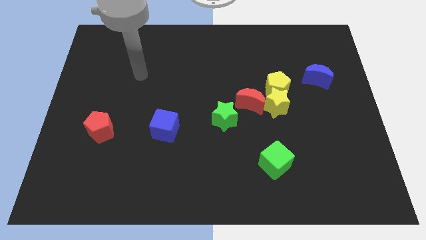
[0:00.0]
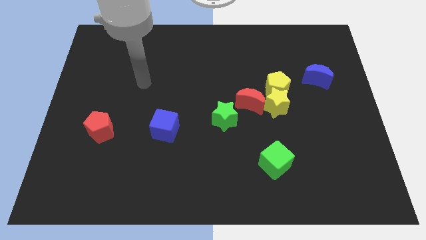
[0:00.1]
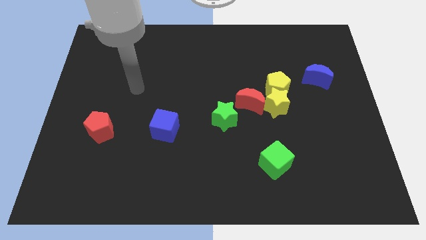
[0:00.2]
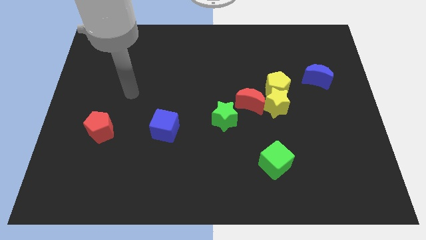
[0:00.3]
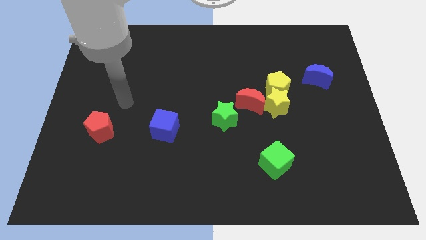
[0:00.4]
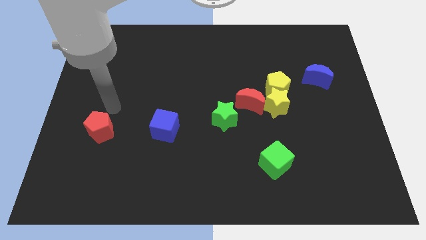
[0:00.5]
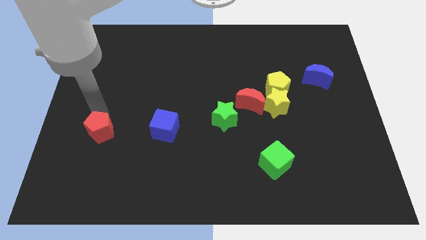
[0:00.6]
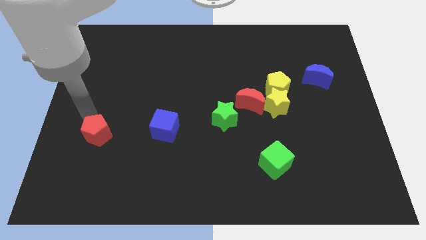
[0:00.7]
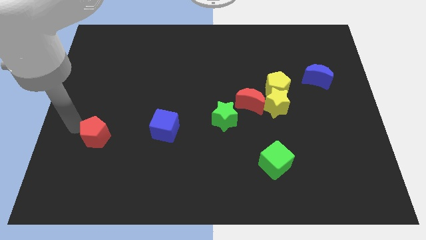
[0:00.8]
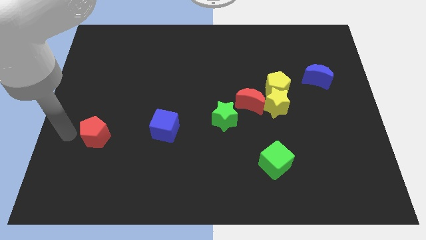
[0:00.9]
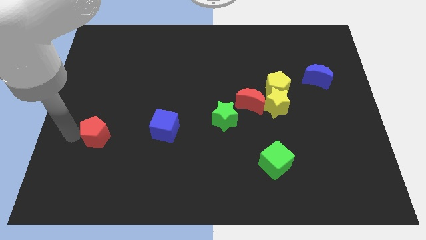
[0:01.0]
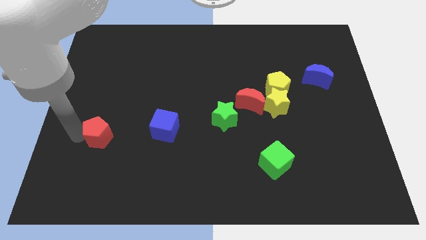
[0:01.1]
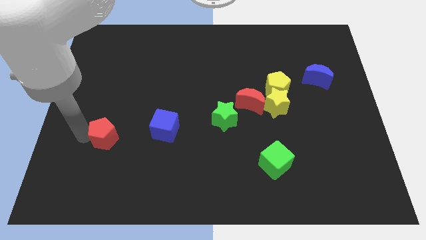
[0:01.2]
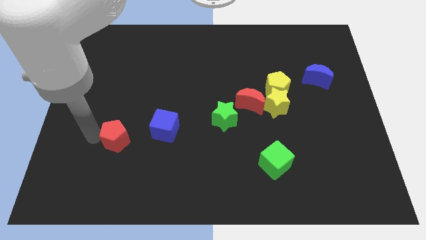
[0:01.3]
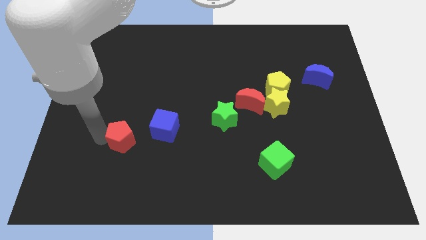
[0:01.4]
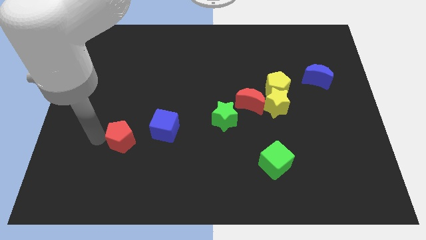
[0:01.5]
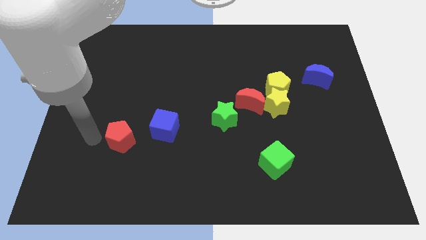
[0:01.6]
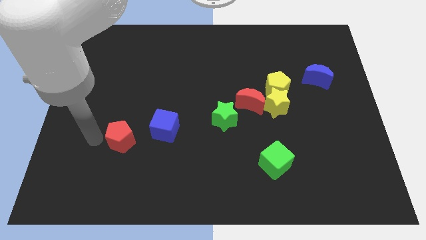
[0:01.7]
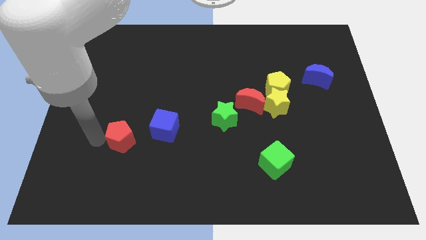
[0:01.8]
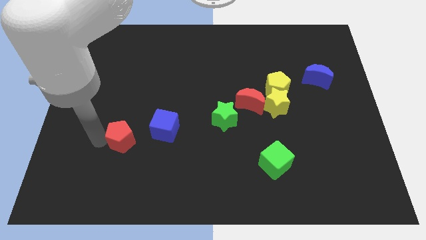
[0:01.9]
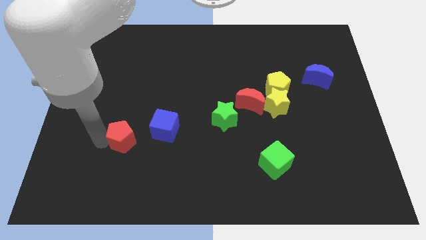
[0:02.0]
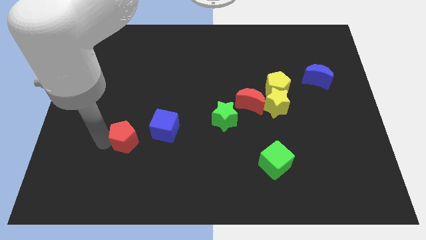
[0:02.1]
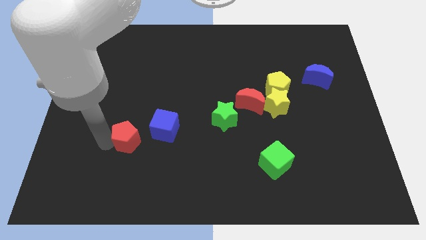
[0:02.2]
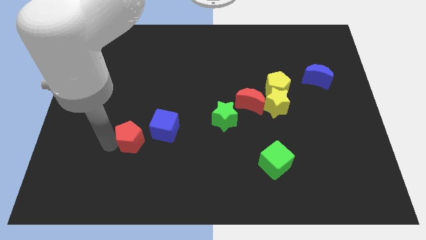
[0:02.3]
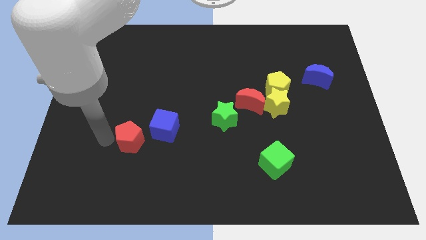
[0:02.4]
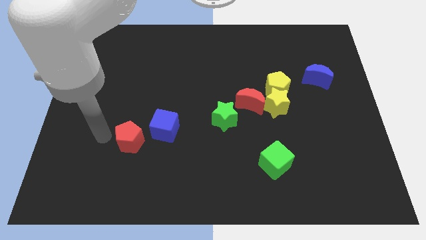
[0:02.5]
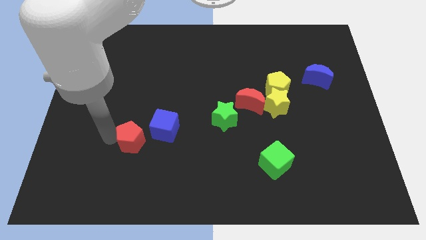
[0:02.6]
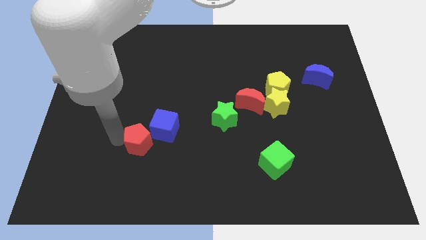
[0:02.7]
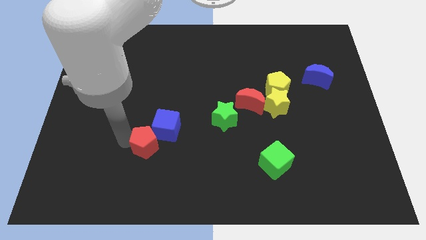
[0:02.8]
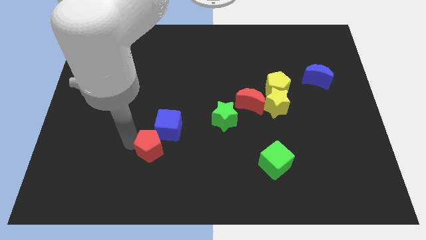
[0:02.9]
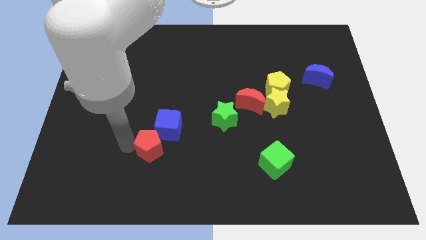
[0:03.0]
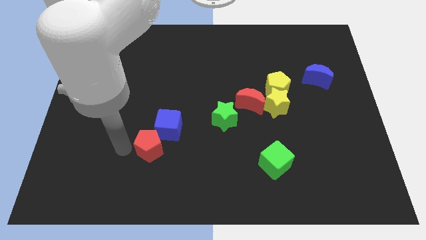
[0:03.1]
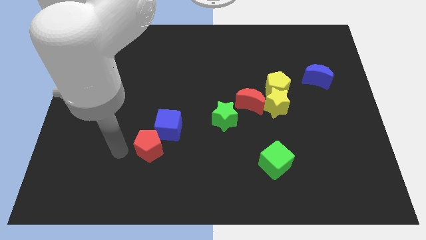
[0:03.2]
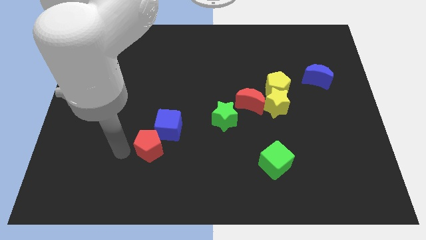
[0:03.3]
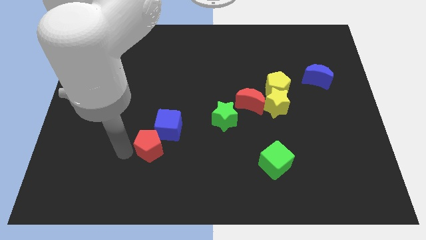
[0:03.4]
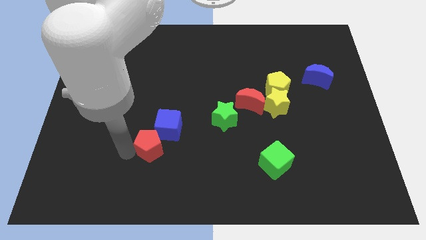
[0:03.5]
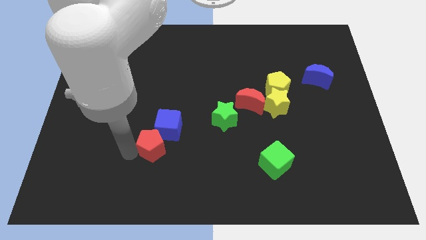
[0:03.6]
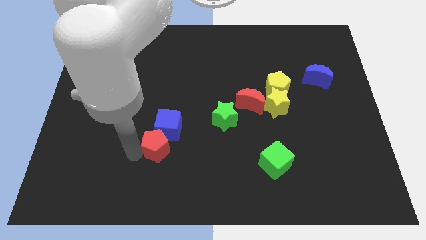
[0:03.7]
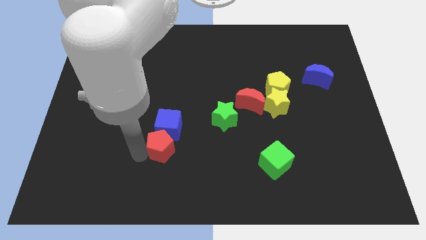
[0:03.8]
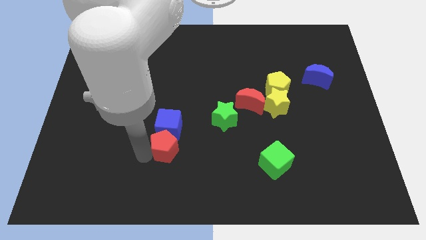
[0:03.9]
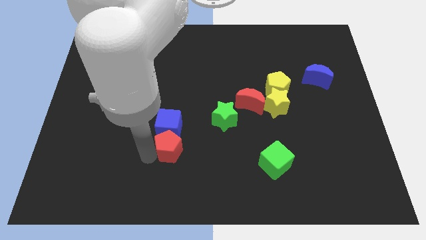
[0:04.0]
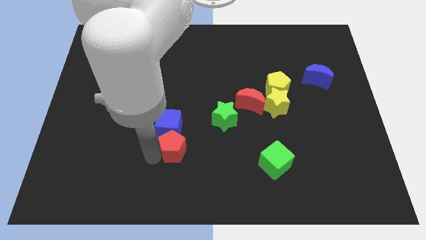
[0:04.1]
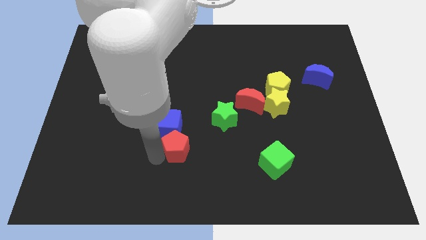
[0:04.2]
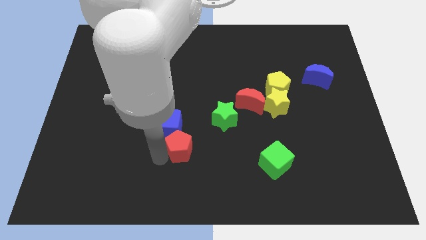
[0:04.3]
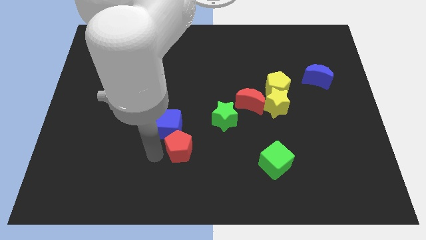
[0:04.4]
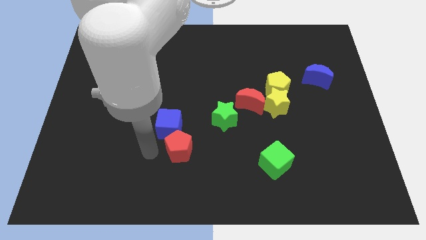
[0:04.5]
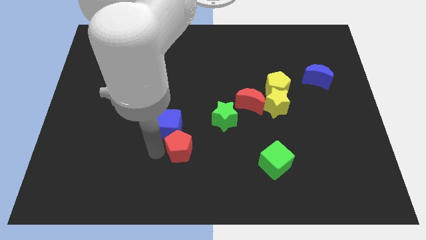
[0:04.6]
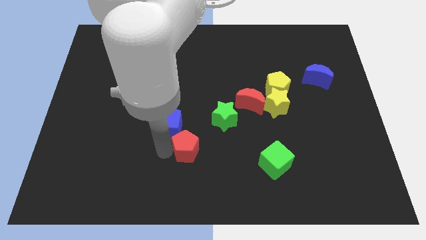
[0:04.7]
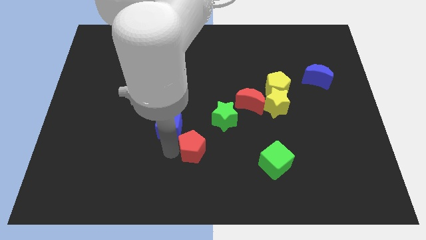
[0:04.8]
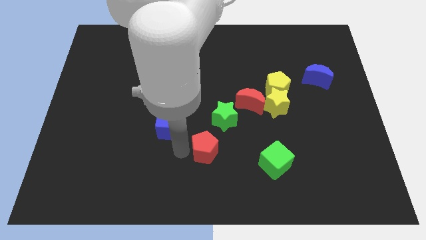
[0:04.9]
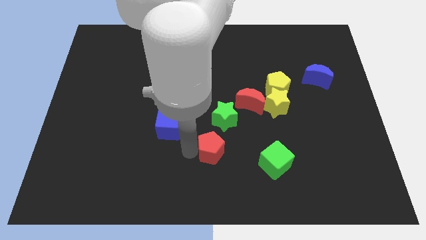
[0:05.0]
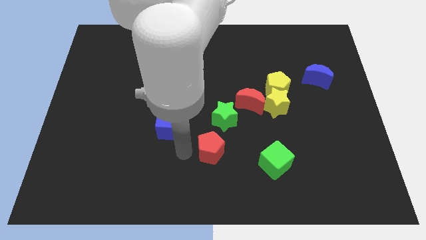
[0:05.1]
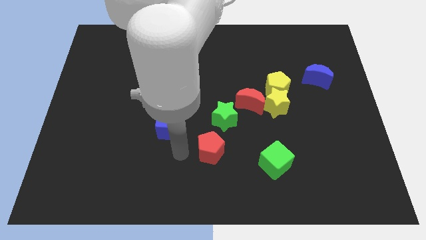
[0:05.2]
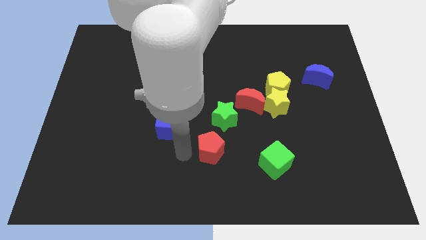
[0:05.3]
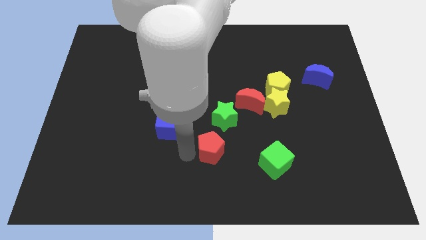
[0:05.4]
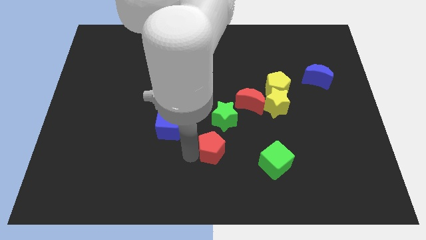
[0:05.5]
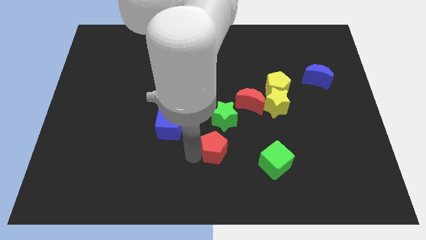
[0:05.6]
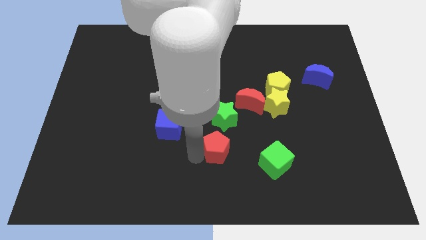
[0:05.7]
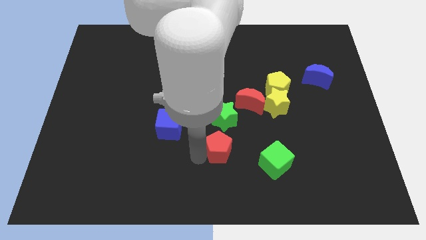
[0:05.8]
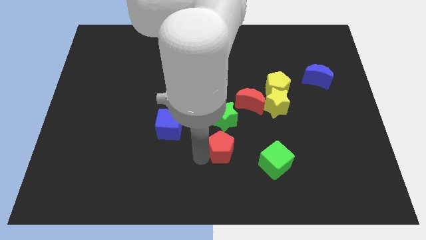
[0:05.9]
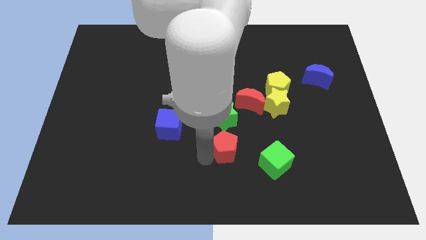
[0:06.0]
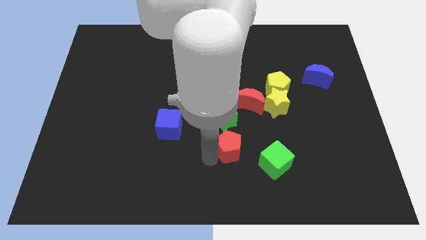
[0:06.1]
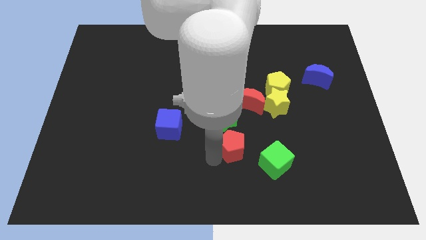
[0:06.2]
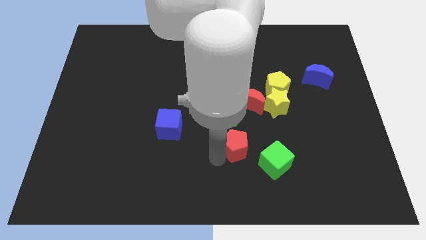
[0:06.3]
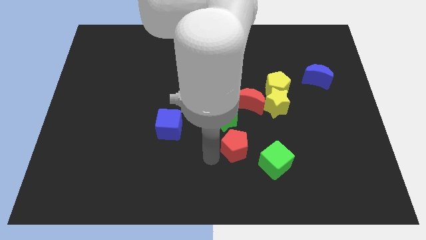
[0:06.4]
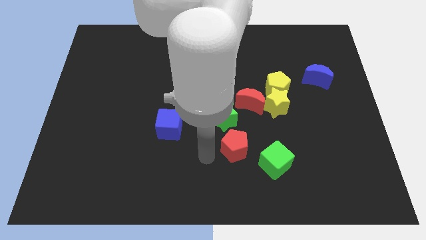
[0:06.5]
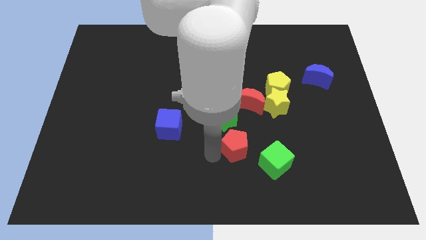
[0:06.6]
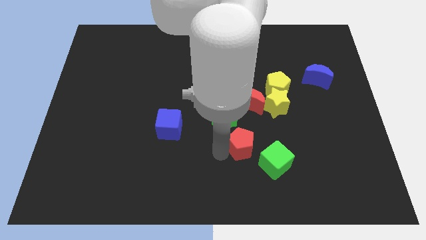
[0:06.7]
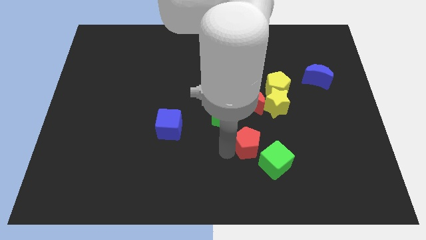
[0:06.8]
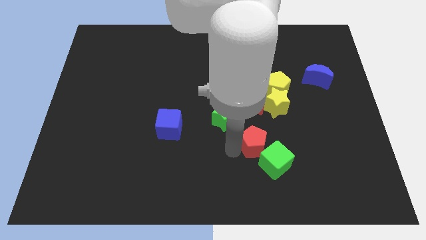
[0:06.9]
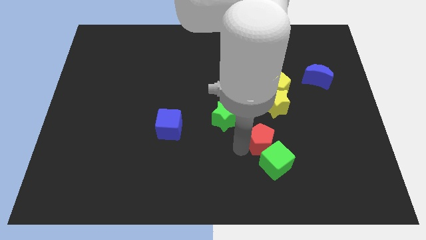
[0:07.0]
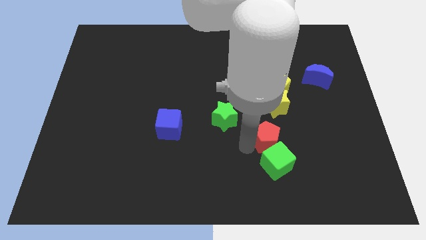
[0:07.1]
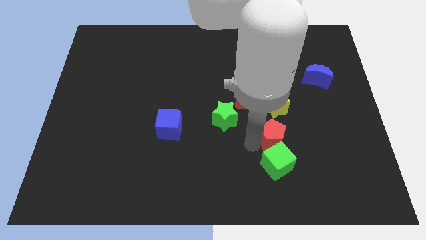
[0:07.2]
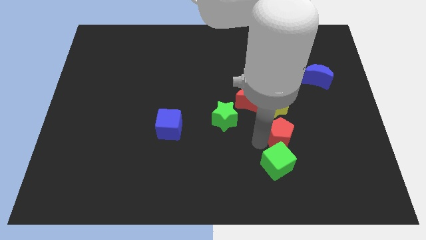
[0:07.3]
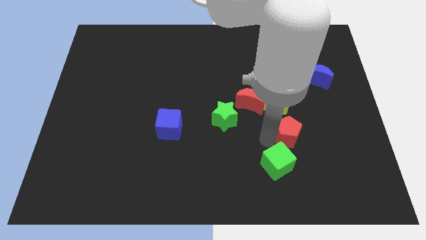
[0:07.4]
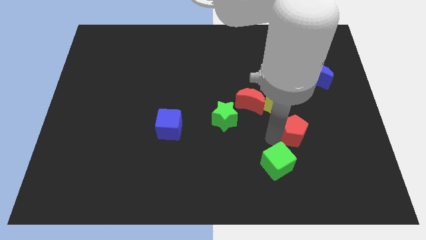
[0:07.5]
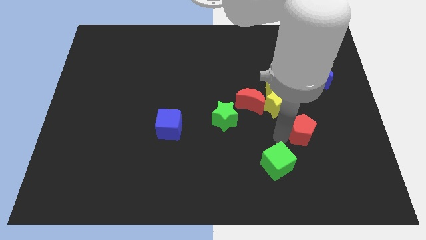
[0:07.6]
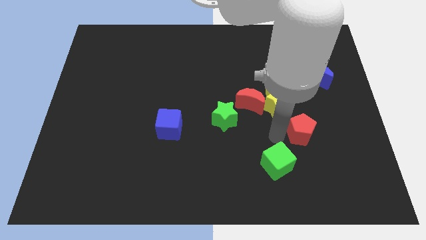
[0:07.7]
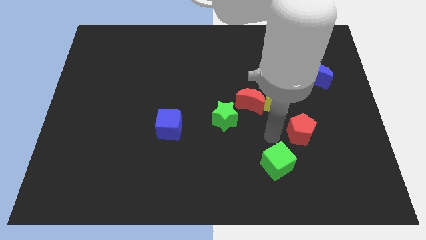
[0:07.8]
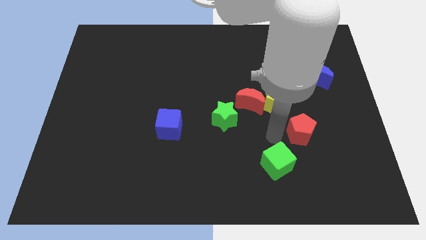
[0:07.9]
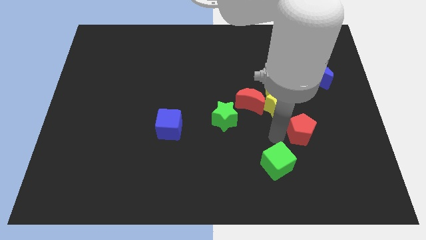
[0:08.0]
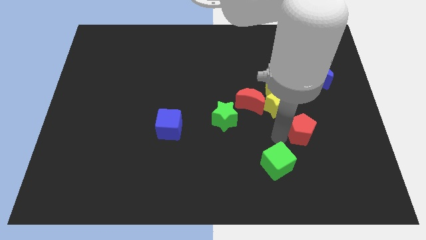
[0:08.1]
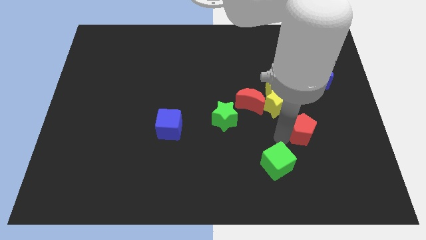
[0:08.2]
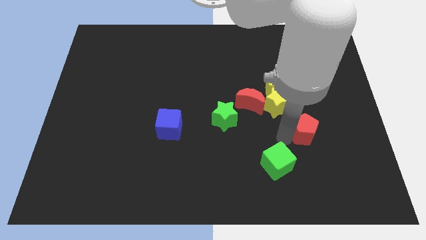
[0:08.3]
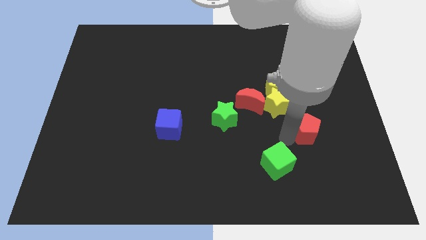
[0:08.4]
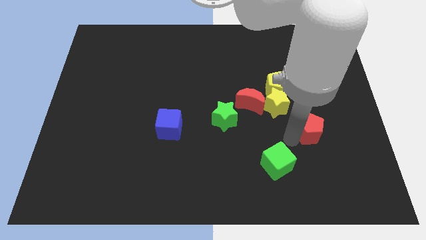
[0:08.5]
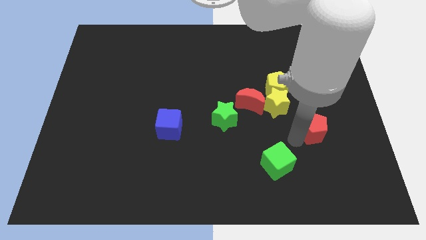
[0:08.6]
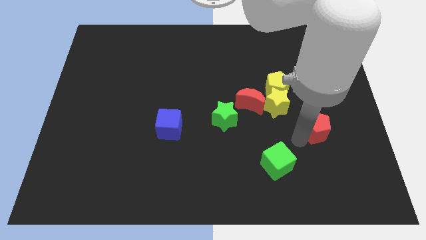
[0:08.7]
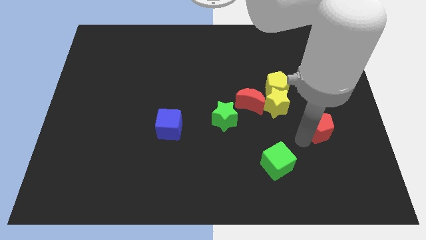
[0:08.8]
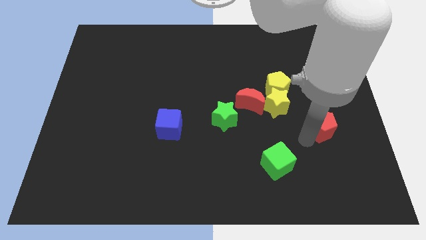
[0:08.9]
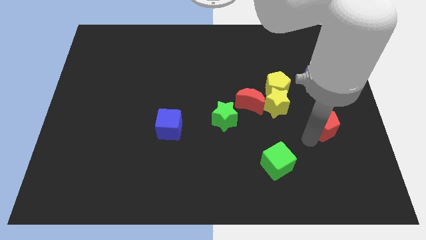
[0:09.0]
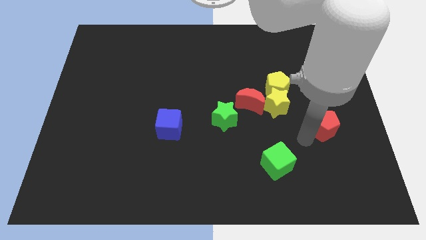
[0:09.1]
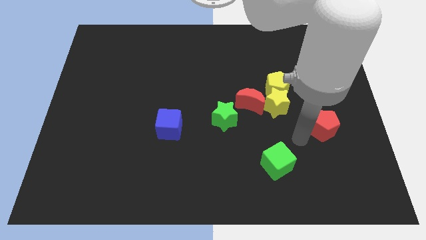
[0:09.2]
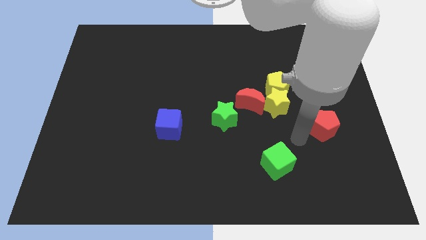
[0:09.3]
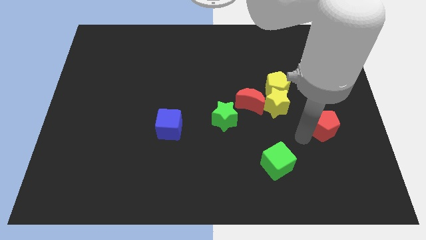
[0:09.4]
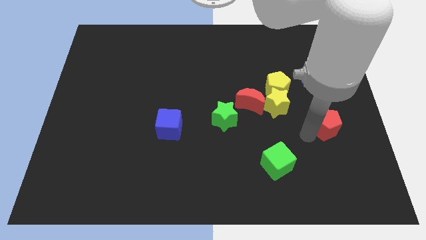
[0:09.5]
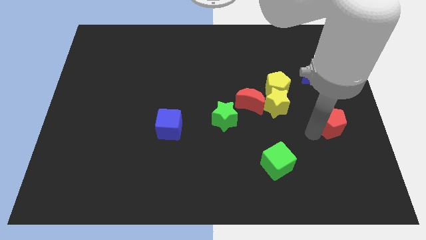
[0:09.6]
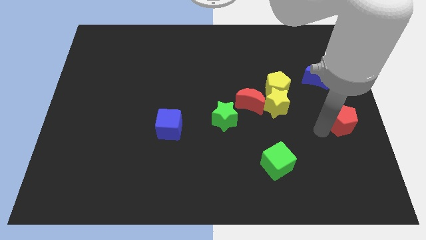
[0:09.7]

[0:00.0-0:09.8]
put the red pentagon to the right side of the board
